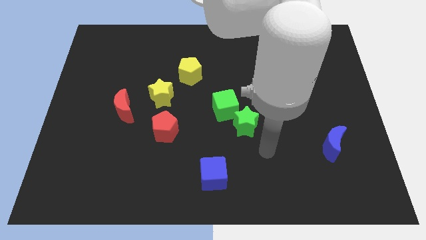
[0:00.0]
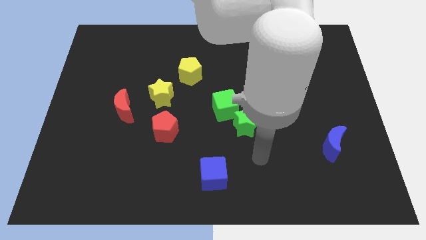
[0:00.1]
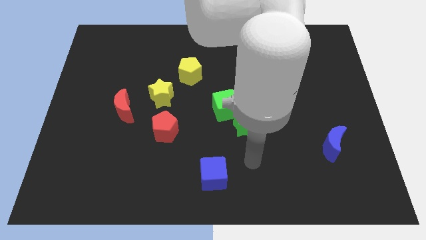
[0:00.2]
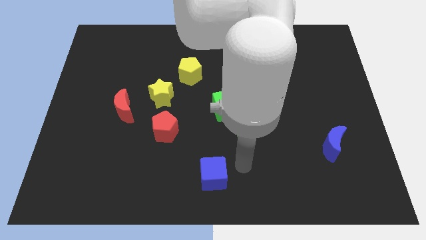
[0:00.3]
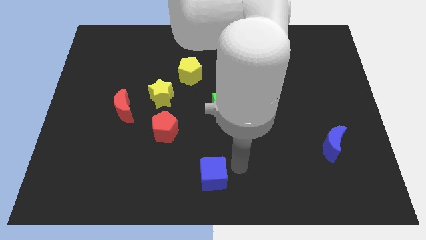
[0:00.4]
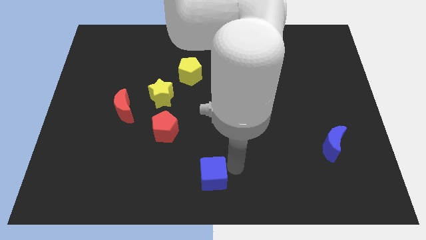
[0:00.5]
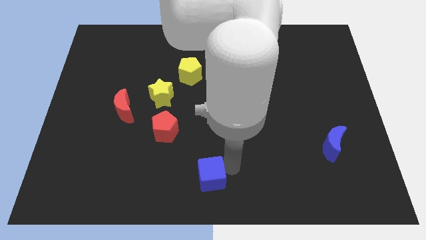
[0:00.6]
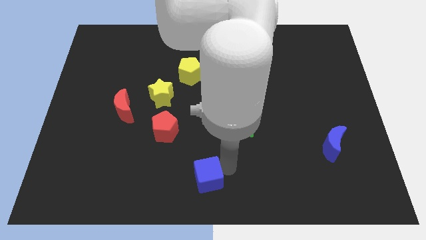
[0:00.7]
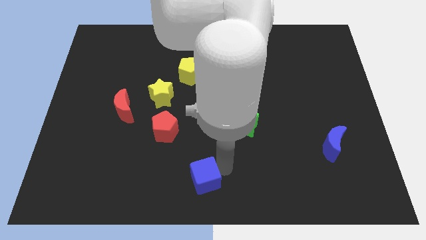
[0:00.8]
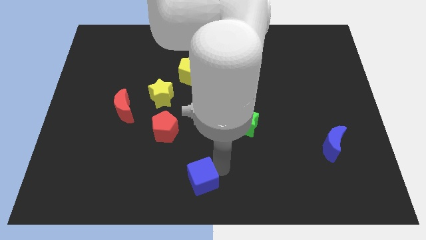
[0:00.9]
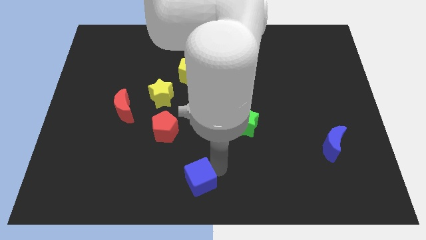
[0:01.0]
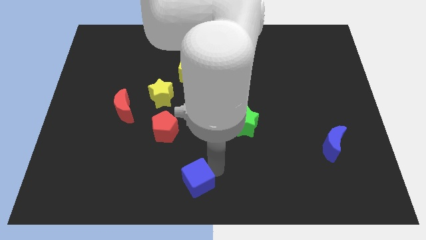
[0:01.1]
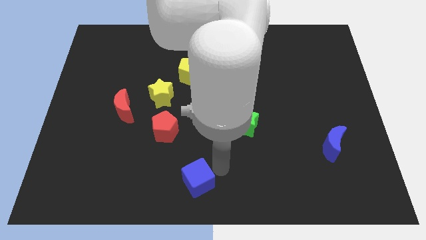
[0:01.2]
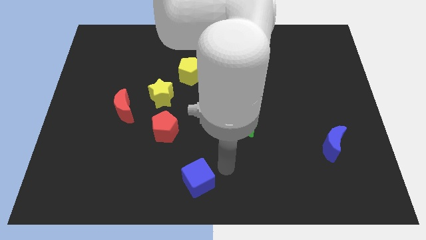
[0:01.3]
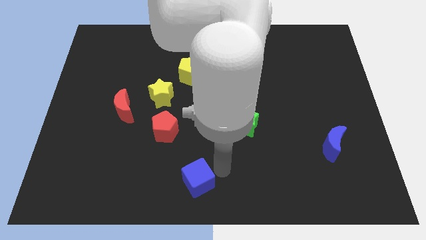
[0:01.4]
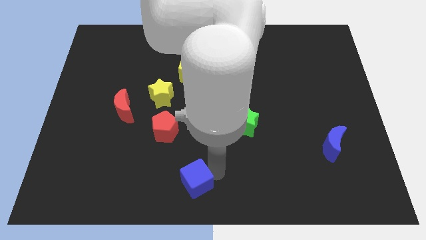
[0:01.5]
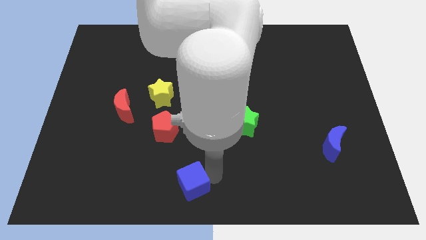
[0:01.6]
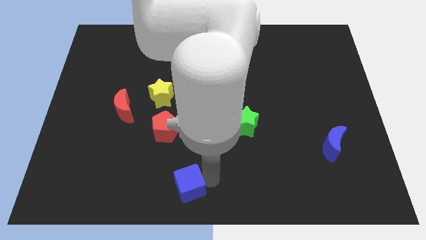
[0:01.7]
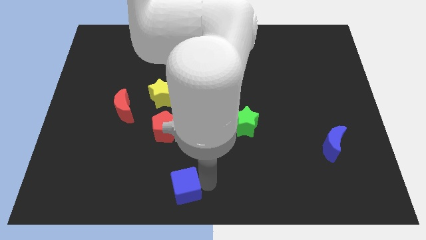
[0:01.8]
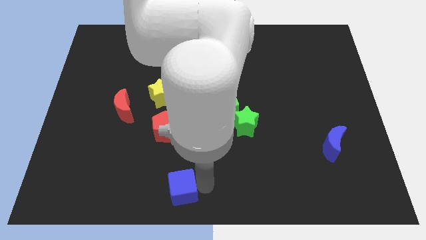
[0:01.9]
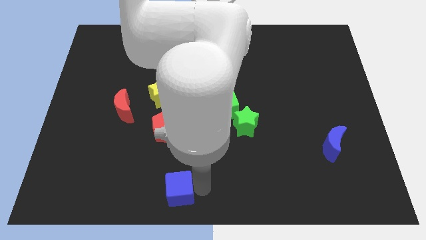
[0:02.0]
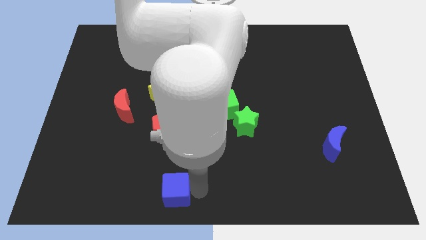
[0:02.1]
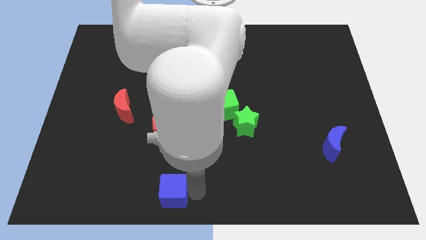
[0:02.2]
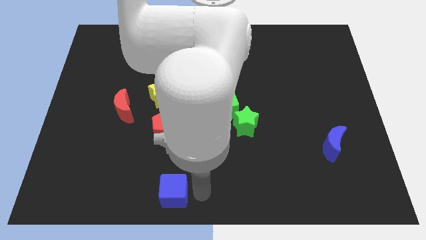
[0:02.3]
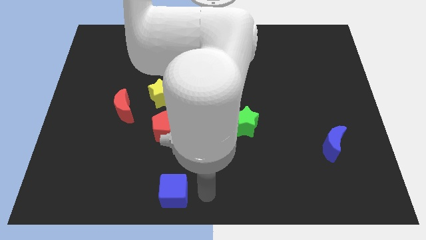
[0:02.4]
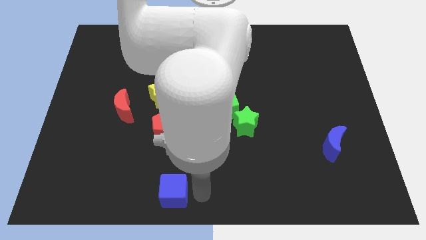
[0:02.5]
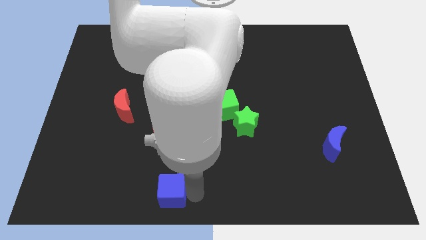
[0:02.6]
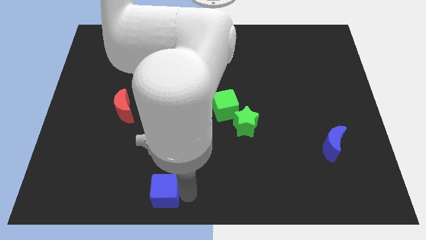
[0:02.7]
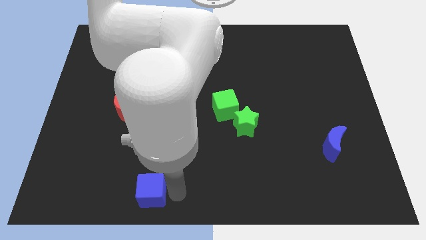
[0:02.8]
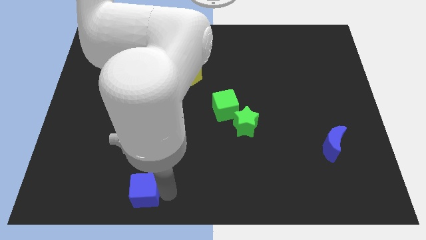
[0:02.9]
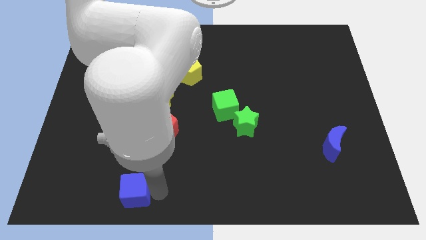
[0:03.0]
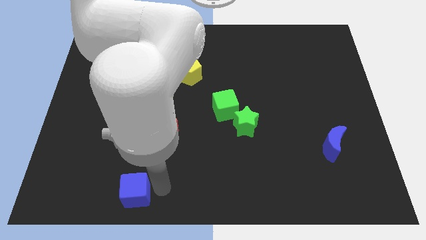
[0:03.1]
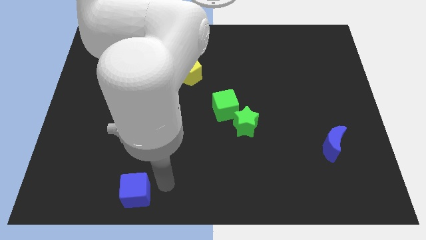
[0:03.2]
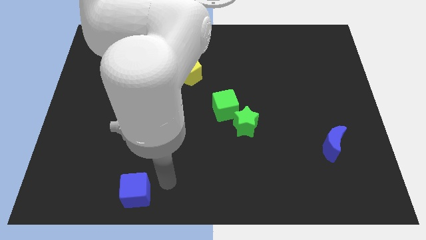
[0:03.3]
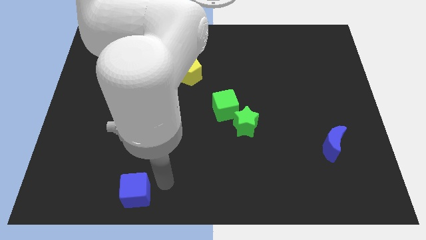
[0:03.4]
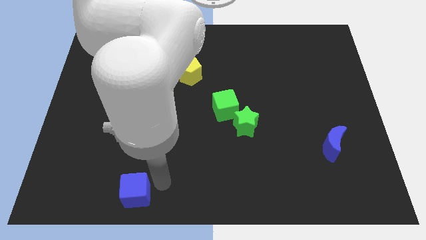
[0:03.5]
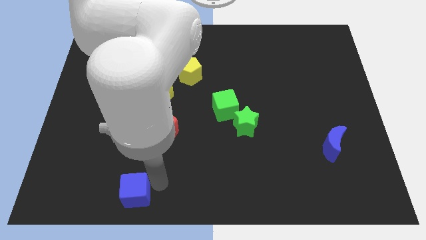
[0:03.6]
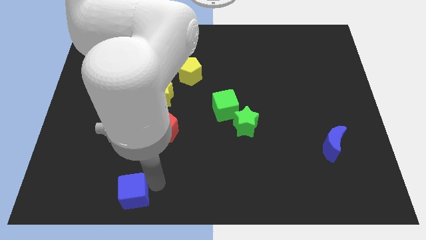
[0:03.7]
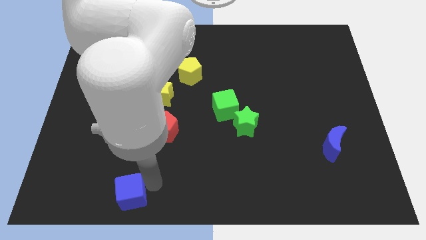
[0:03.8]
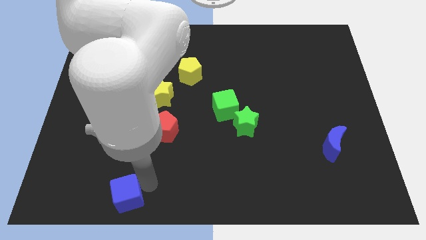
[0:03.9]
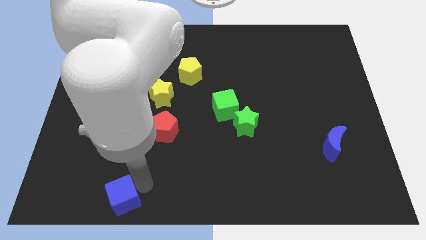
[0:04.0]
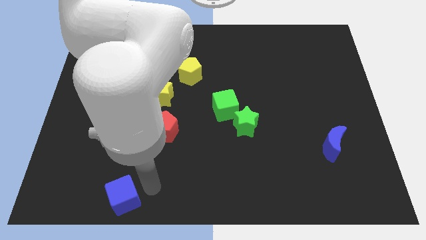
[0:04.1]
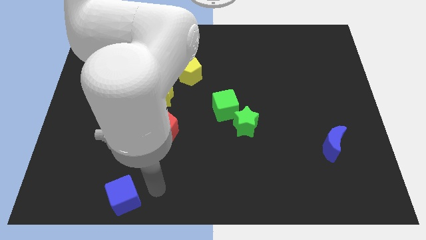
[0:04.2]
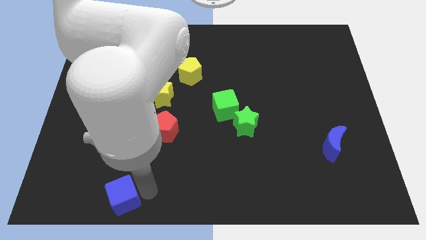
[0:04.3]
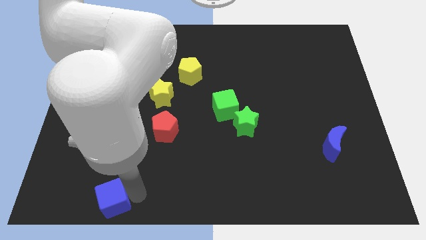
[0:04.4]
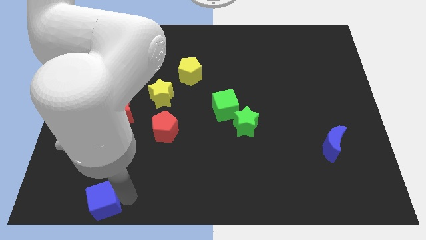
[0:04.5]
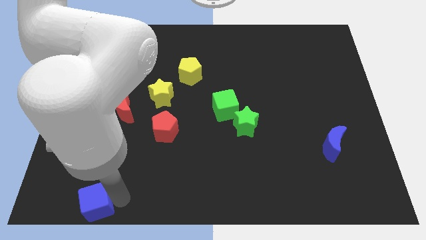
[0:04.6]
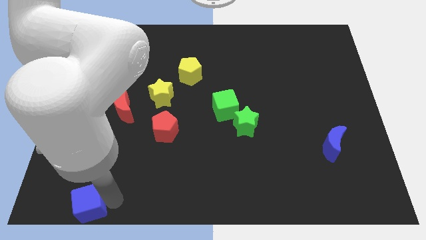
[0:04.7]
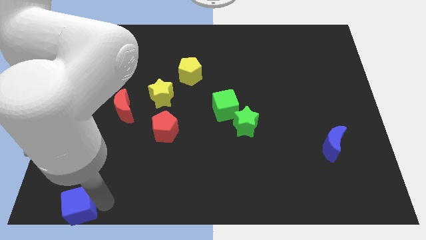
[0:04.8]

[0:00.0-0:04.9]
push the blue cube to the lower left corner

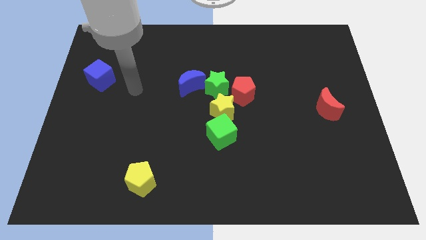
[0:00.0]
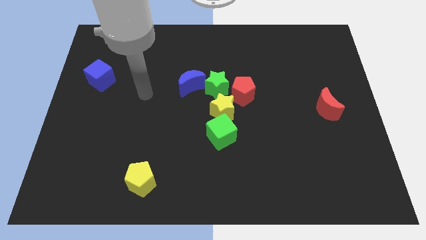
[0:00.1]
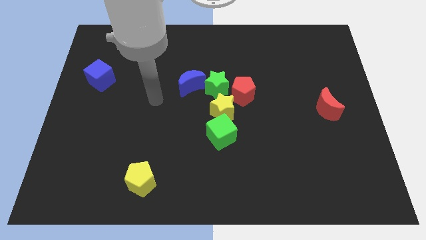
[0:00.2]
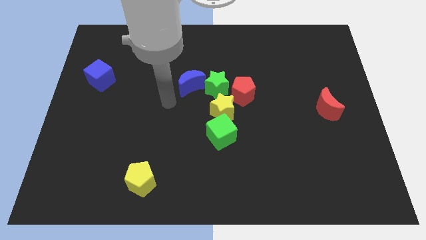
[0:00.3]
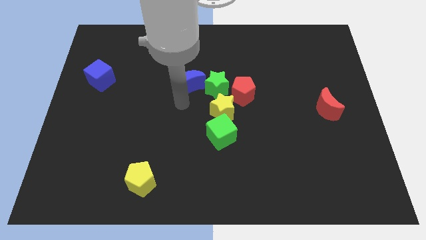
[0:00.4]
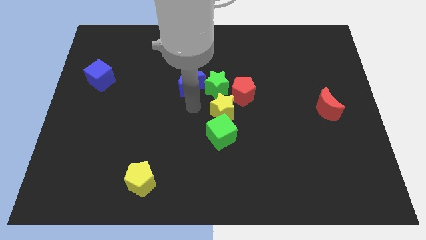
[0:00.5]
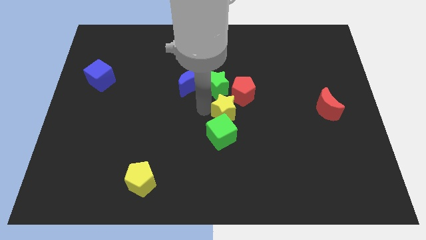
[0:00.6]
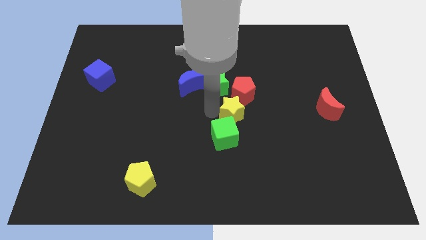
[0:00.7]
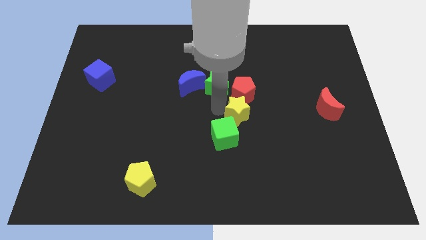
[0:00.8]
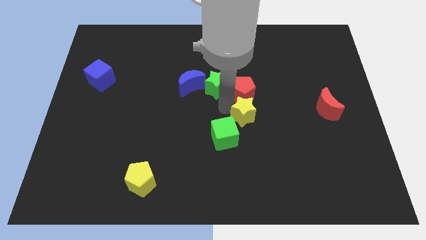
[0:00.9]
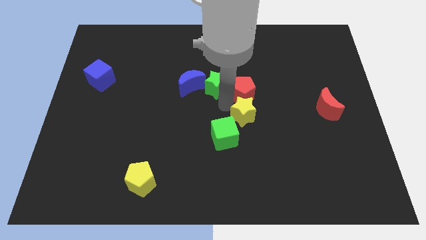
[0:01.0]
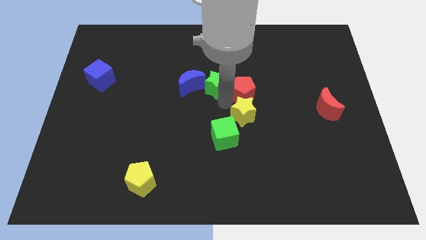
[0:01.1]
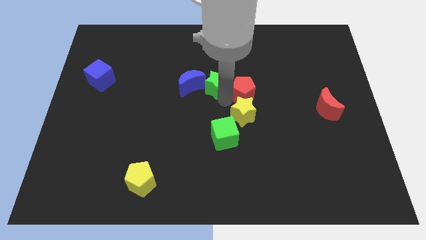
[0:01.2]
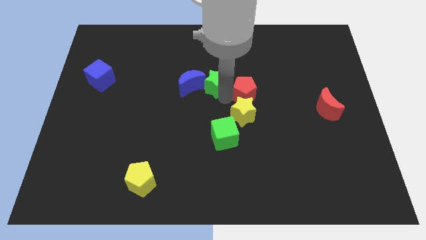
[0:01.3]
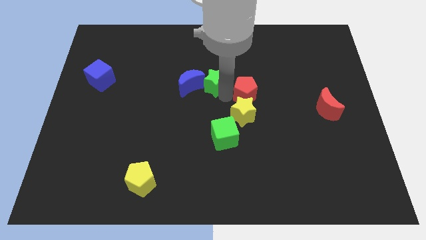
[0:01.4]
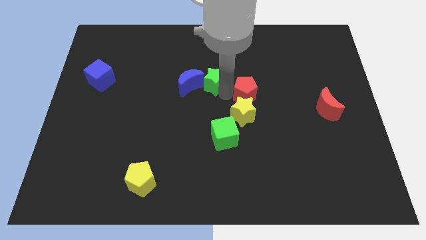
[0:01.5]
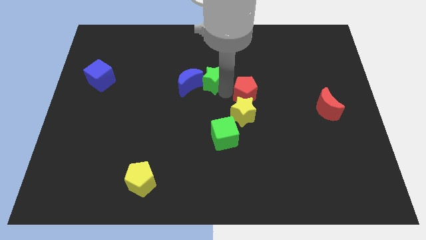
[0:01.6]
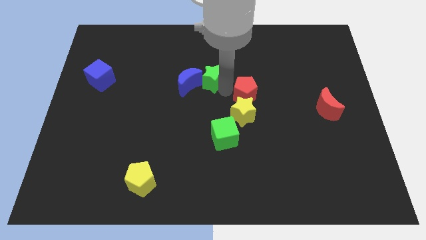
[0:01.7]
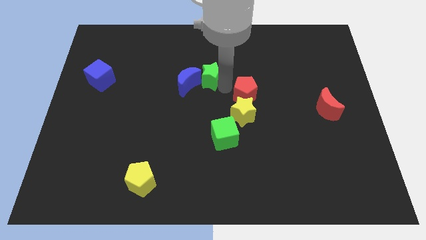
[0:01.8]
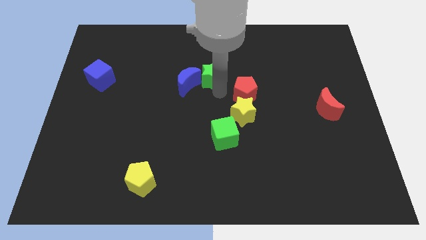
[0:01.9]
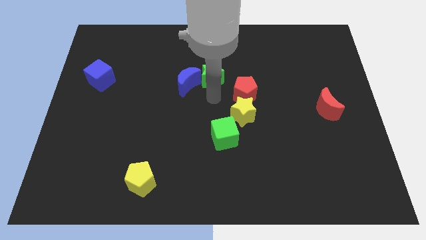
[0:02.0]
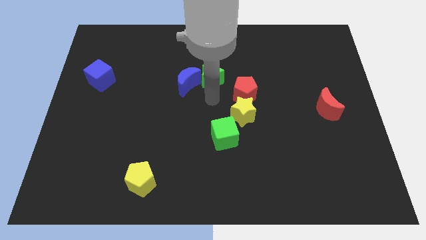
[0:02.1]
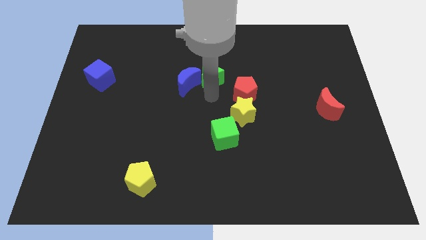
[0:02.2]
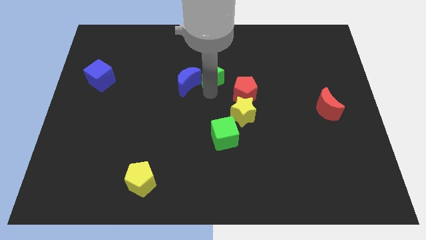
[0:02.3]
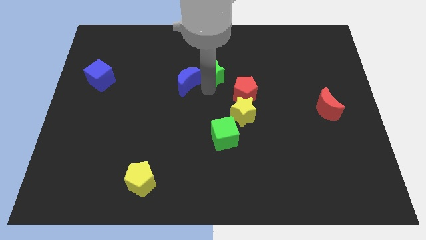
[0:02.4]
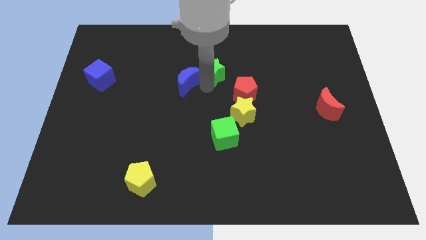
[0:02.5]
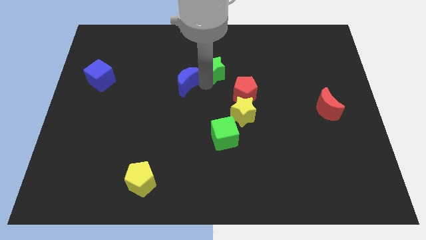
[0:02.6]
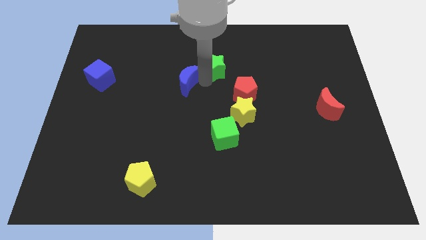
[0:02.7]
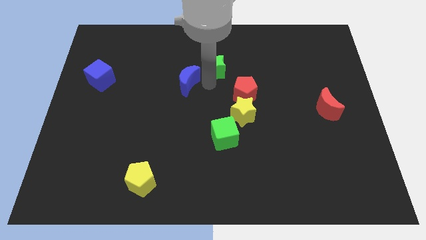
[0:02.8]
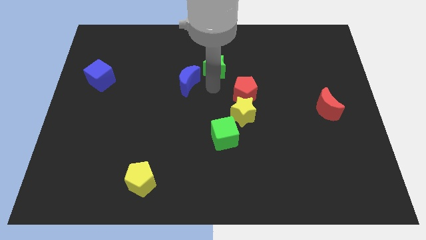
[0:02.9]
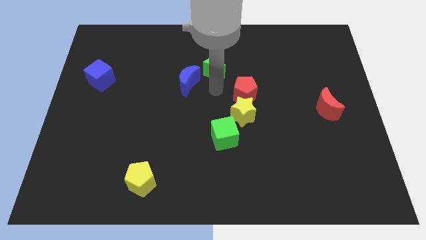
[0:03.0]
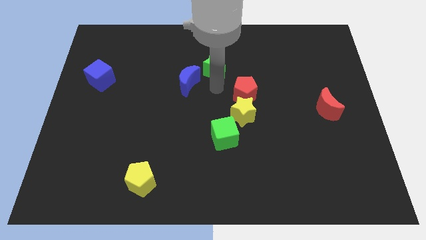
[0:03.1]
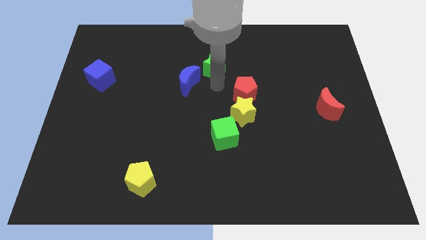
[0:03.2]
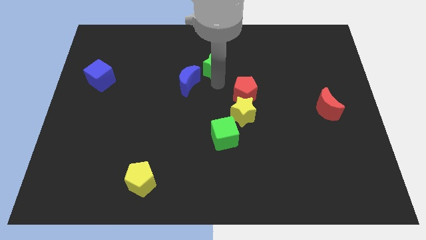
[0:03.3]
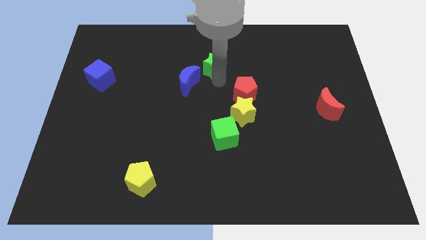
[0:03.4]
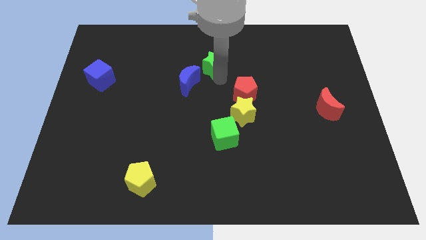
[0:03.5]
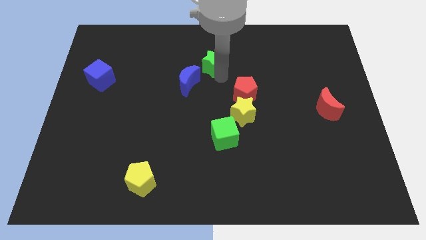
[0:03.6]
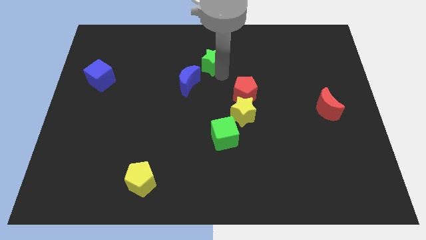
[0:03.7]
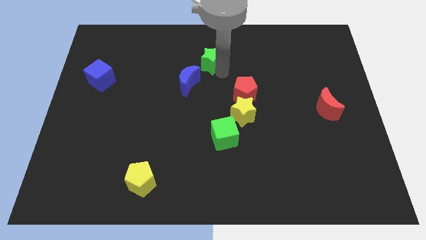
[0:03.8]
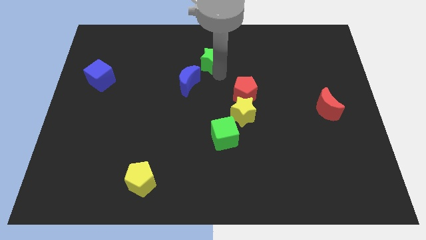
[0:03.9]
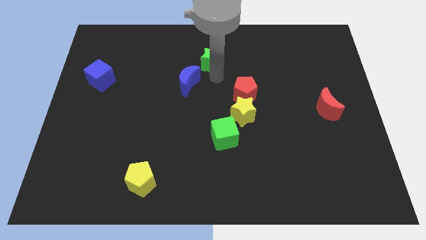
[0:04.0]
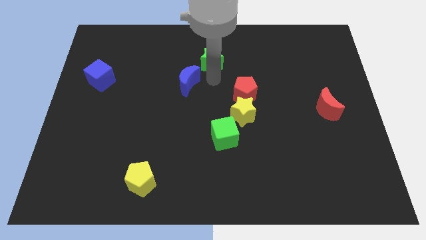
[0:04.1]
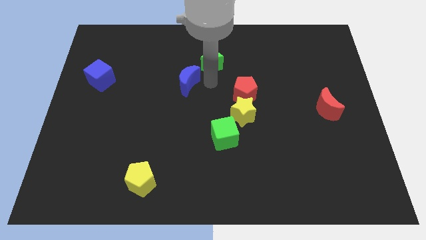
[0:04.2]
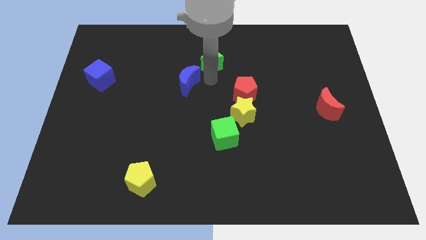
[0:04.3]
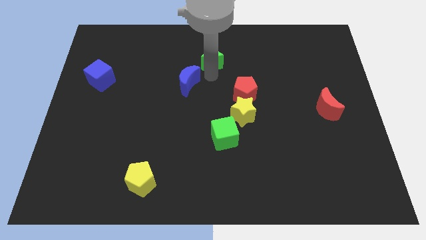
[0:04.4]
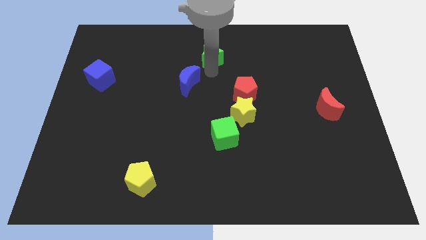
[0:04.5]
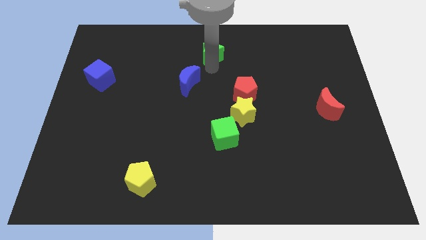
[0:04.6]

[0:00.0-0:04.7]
move the green star to the top side
